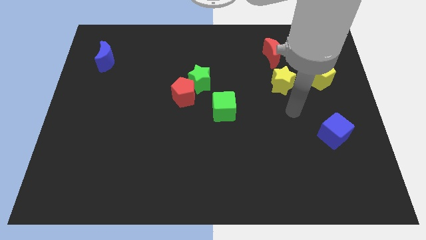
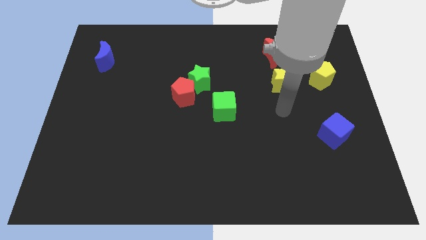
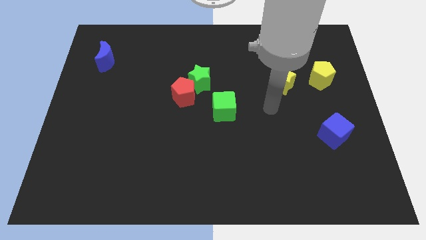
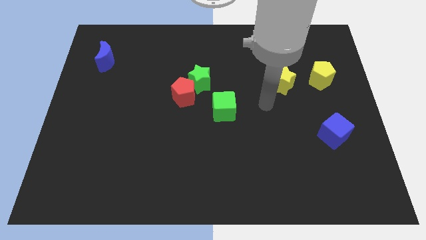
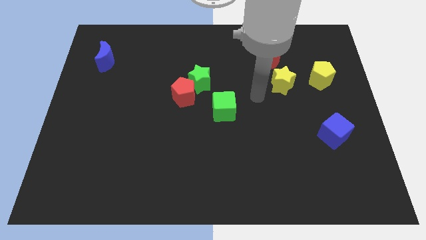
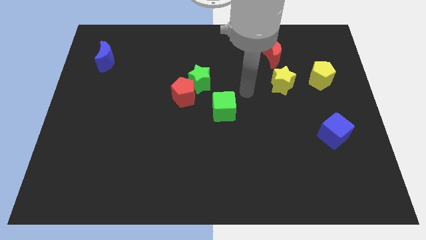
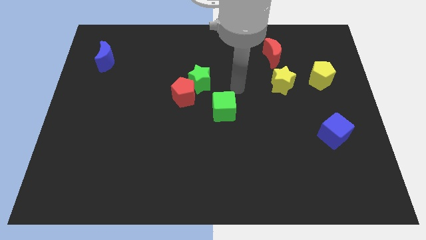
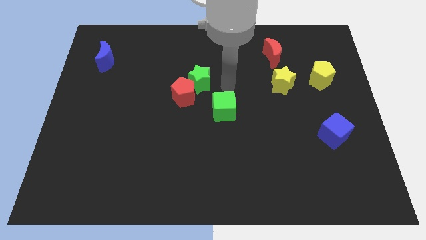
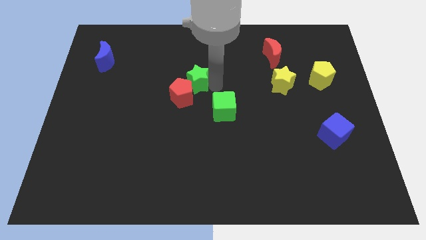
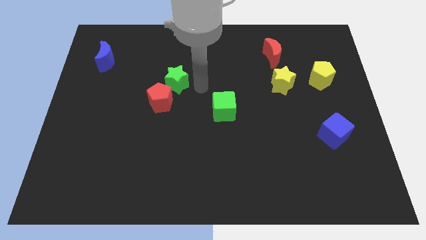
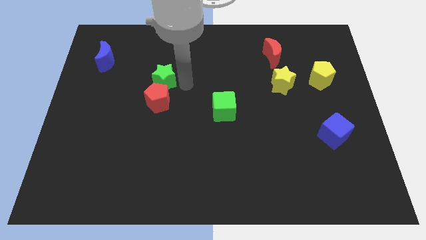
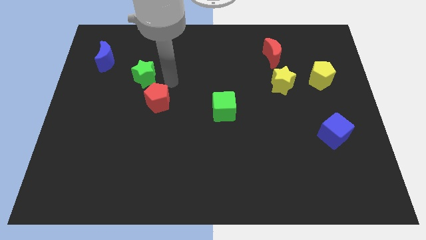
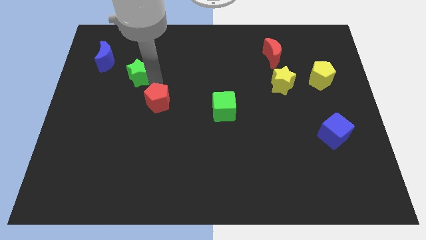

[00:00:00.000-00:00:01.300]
move the red pentagon away from the green star

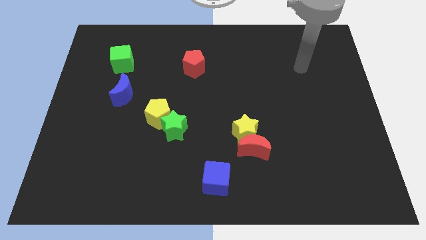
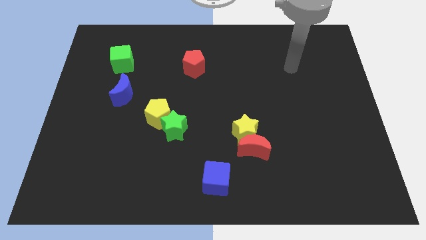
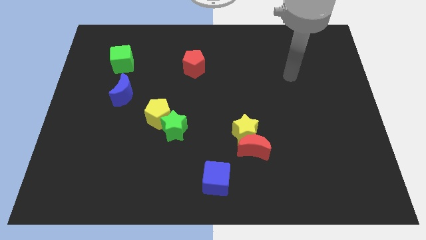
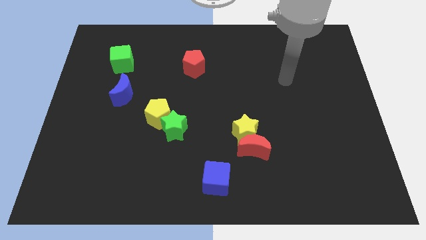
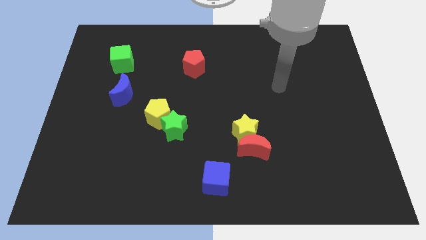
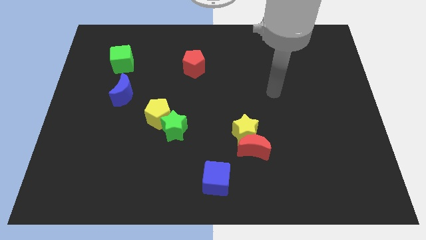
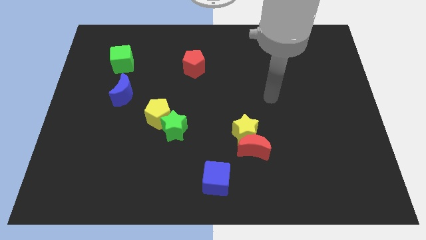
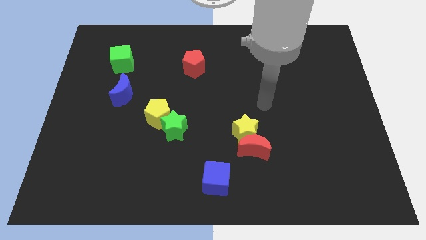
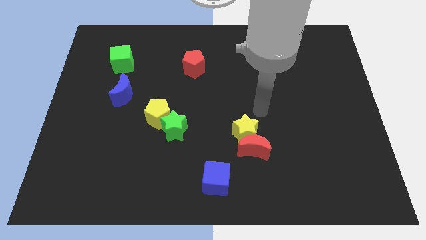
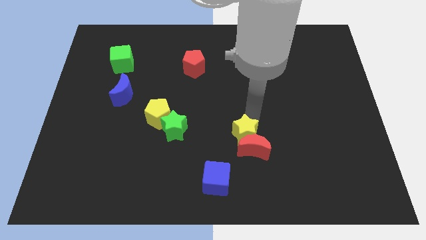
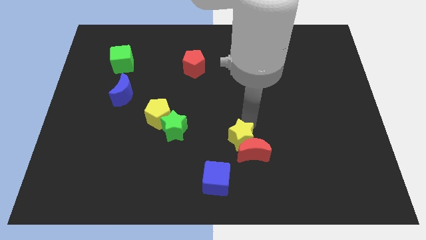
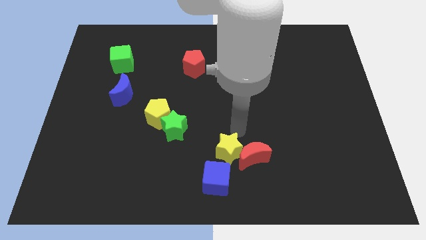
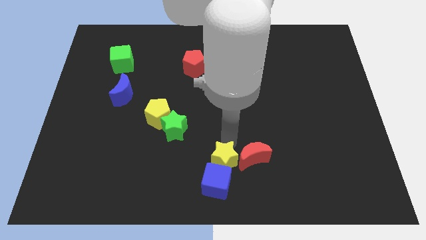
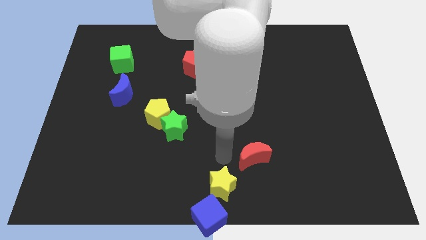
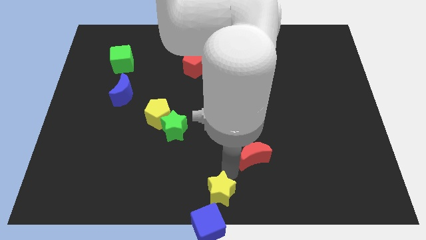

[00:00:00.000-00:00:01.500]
move the red moon away from the yellow star

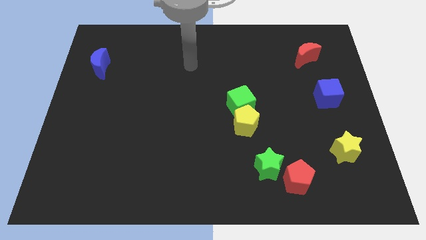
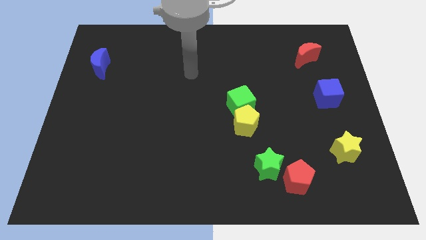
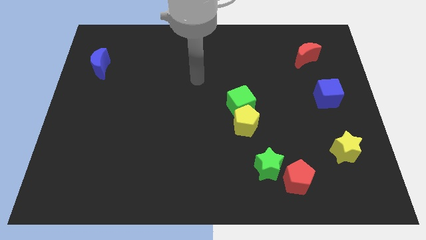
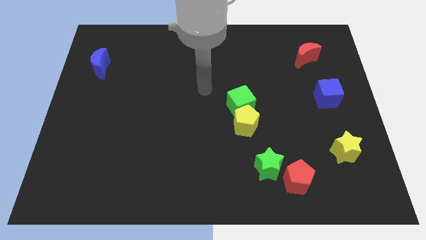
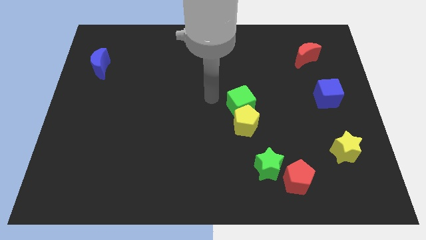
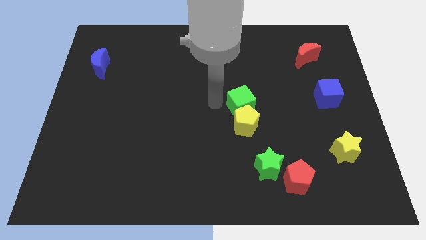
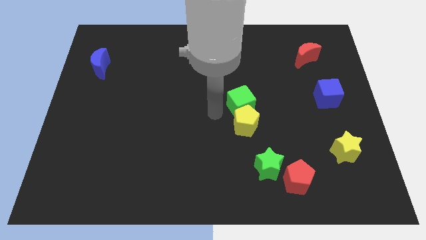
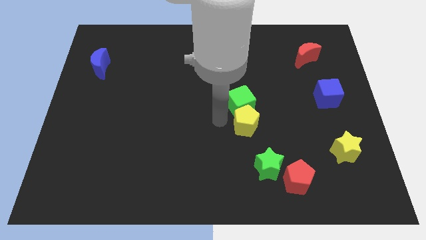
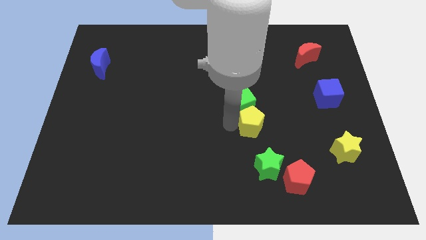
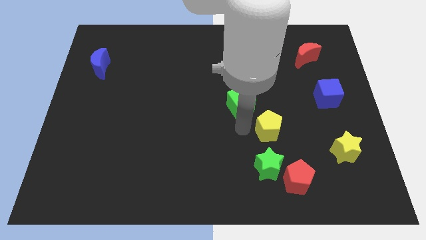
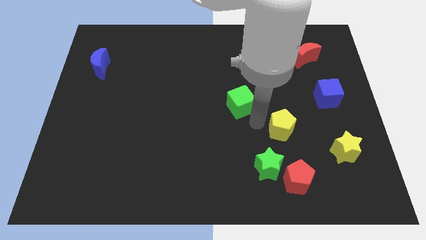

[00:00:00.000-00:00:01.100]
move the green cube away from the yellow pentagon

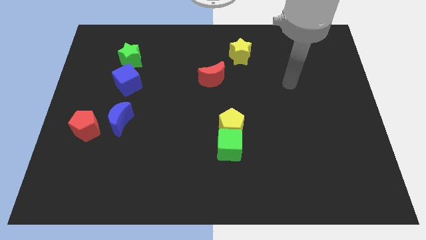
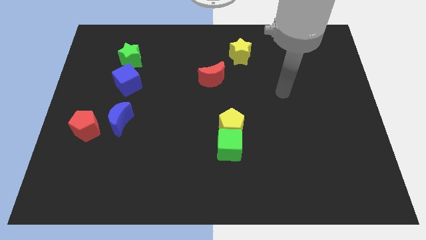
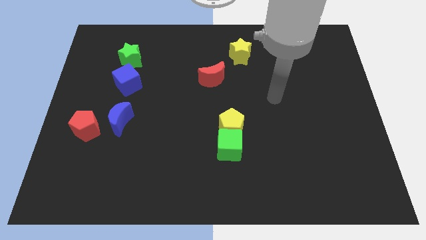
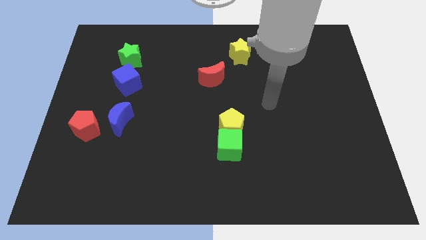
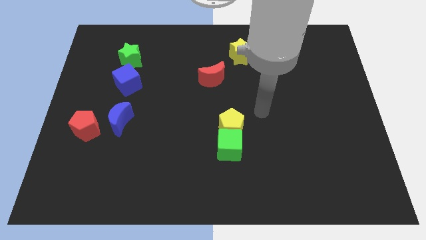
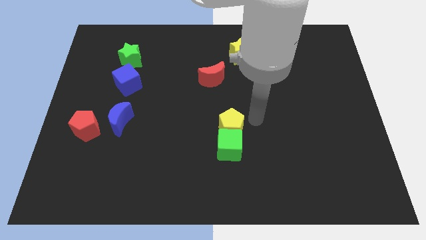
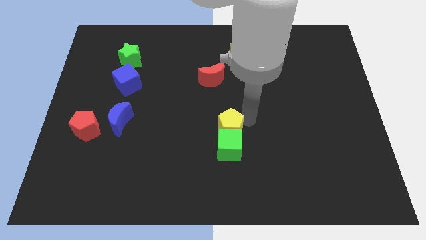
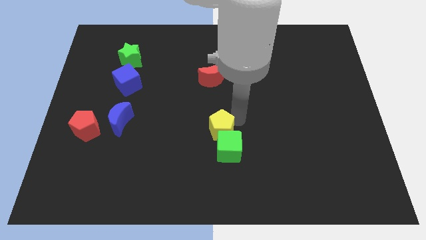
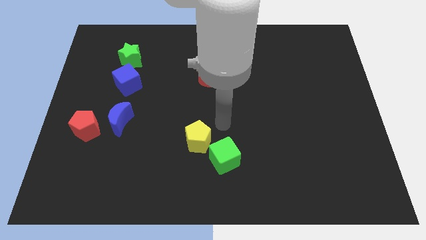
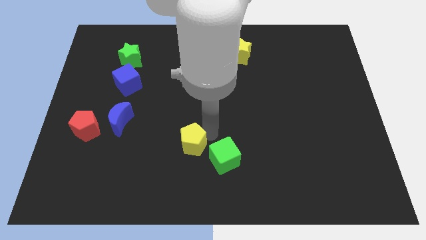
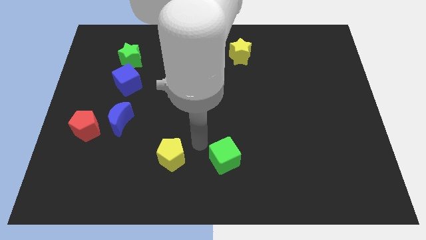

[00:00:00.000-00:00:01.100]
pull the green cube apart from the yellow pentagon

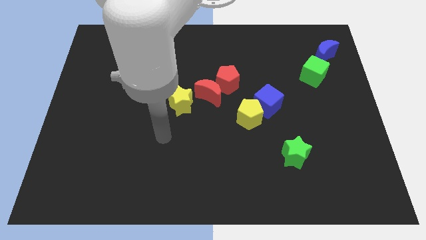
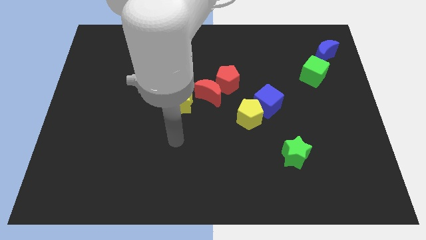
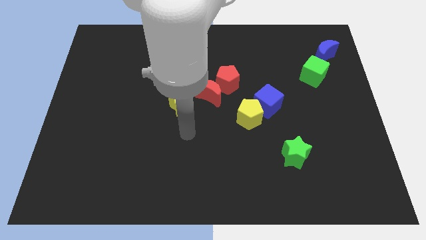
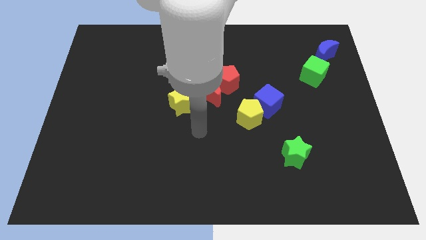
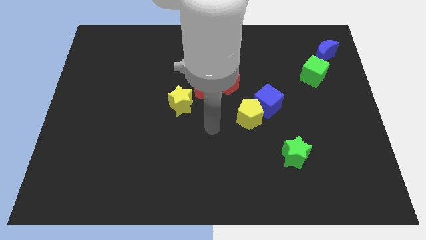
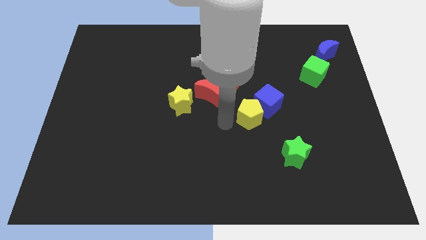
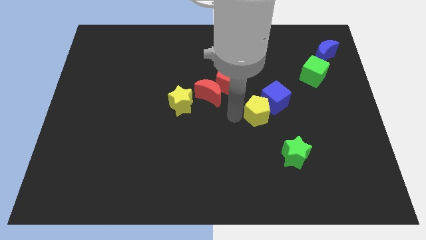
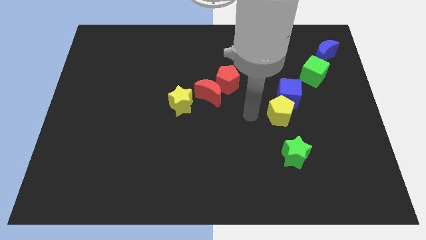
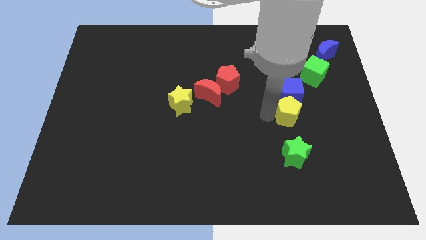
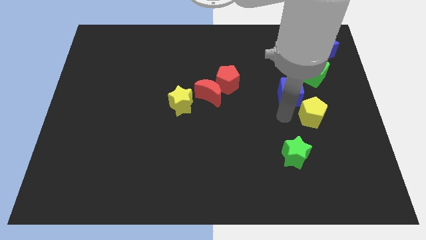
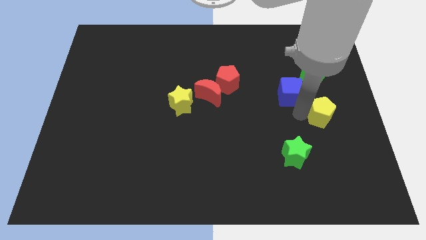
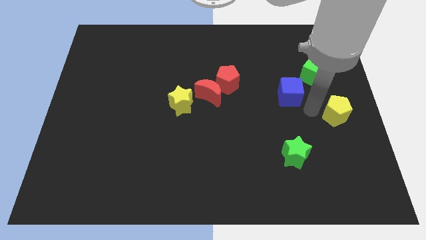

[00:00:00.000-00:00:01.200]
separate the blue cube from the yellow pentagon

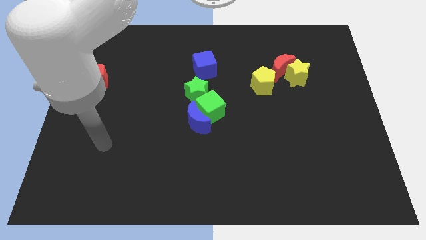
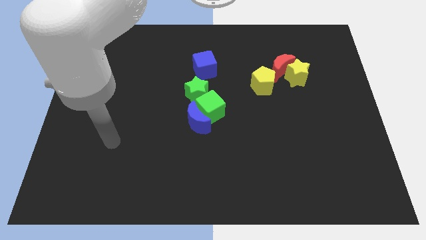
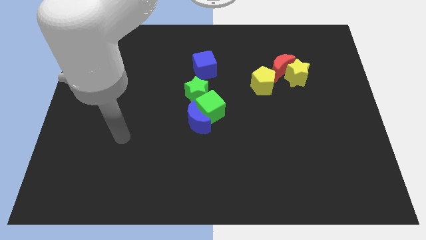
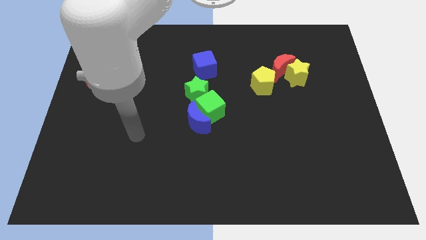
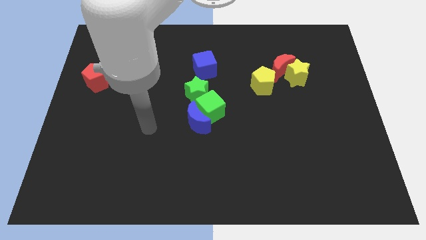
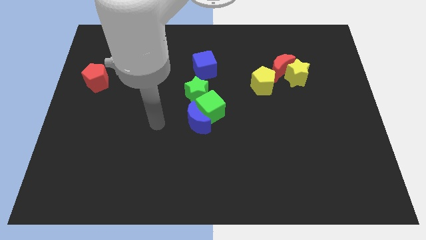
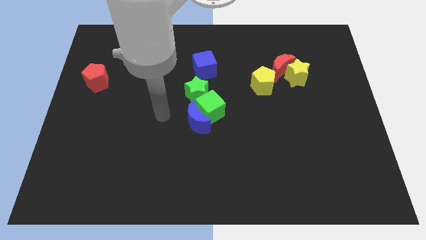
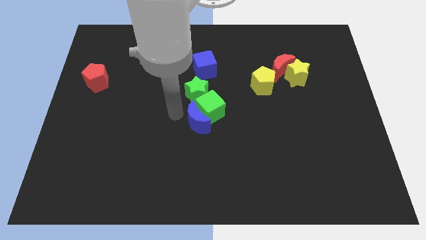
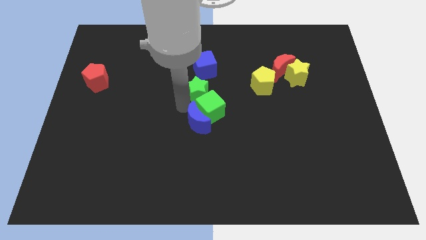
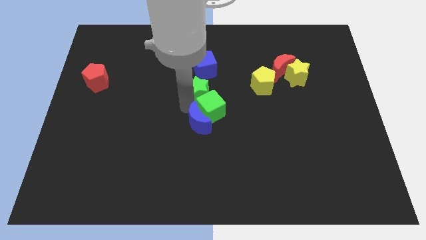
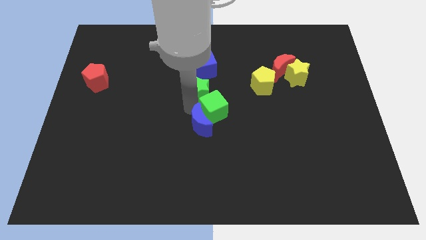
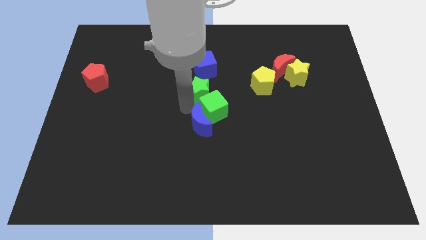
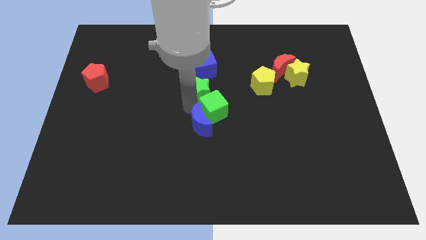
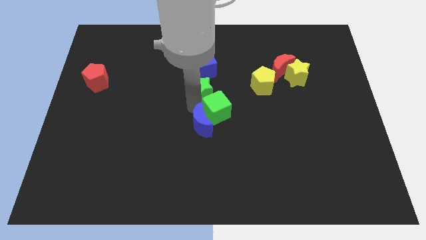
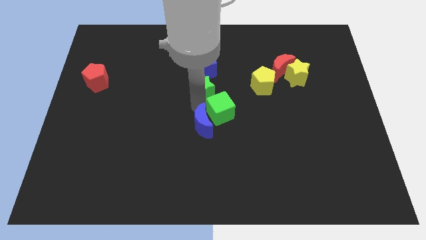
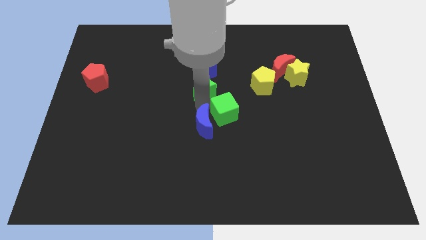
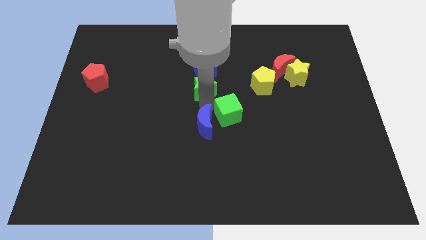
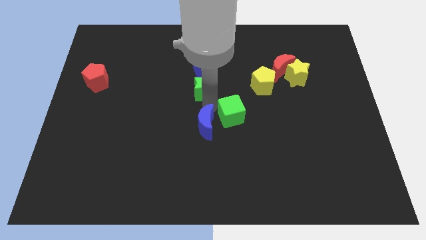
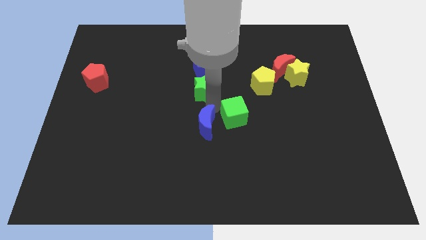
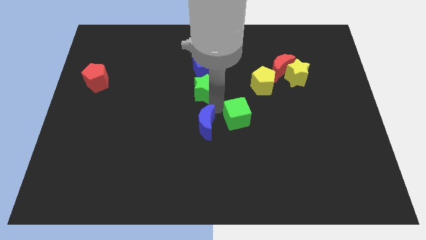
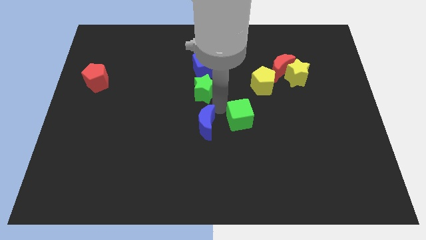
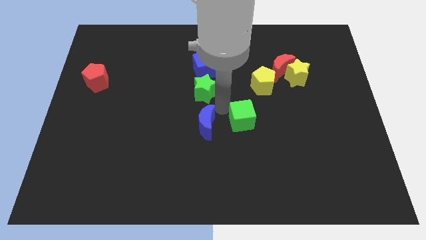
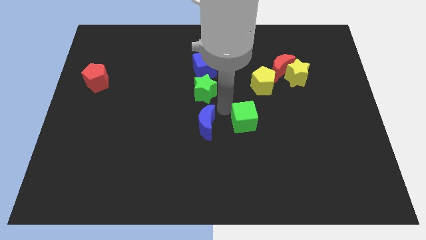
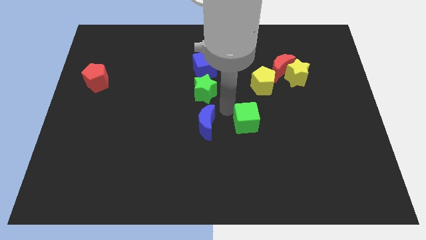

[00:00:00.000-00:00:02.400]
separate the green cube from the blue moon and green star

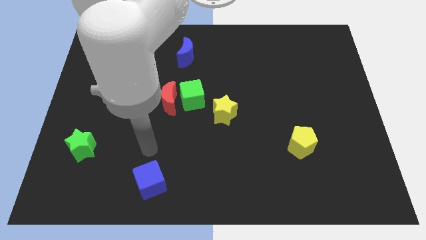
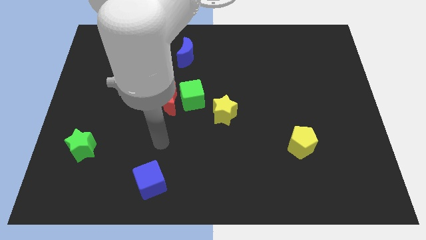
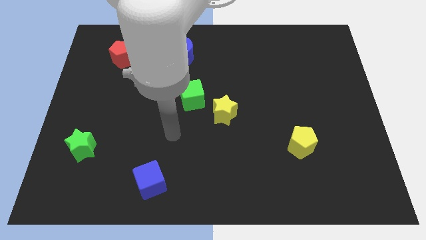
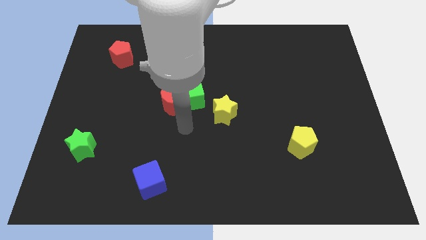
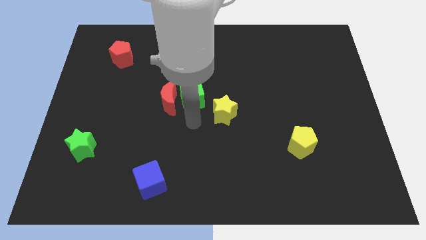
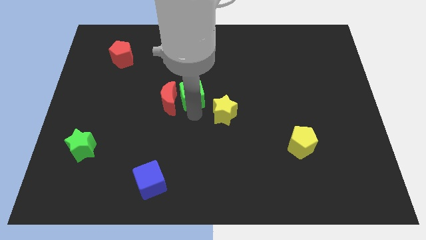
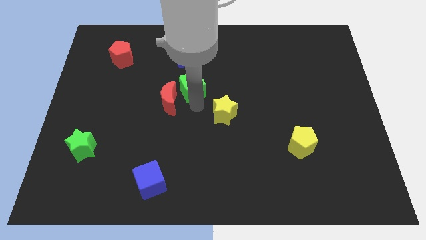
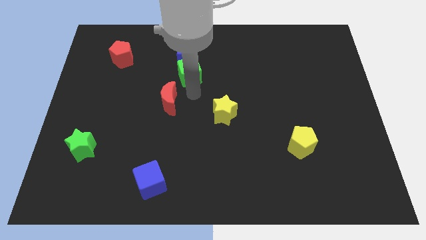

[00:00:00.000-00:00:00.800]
separate the red moon from the green cube
